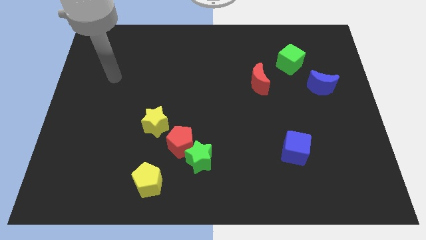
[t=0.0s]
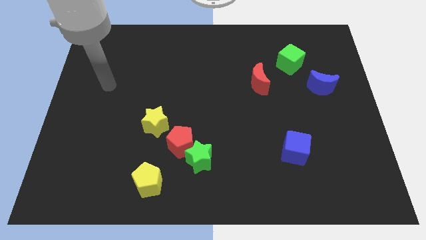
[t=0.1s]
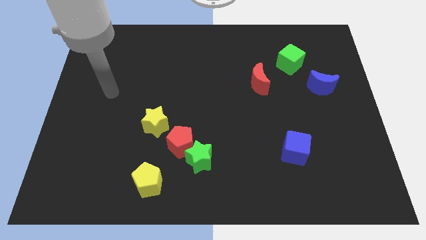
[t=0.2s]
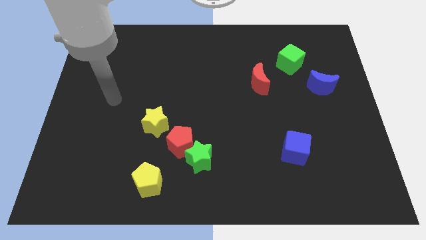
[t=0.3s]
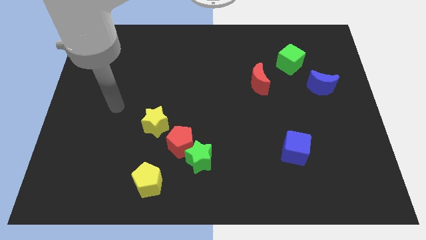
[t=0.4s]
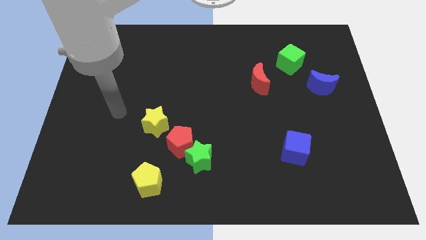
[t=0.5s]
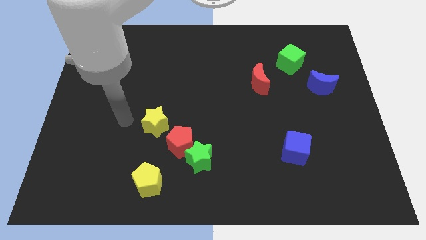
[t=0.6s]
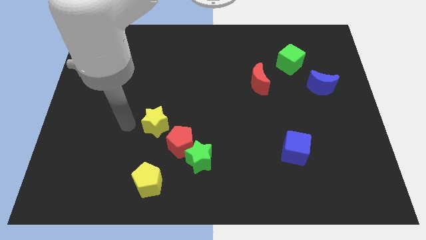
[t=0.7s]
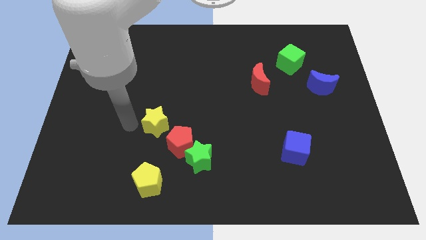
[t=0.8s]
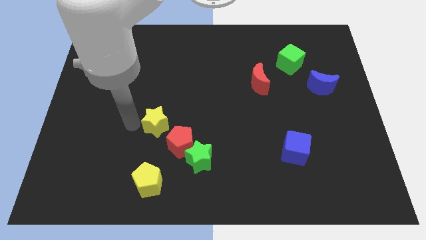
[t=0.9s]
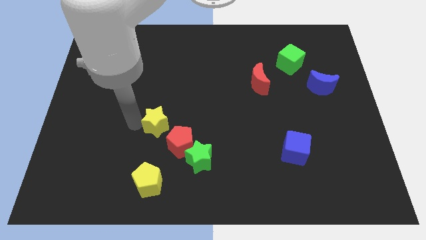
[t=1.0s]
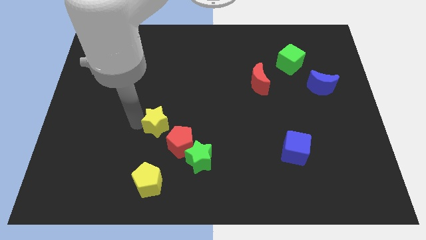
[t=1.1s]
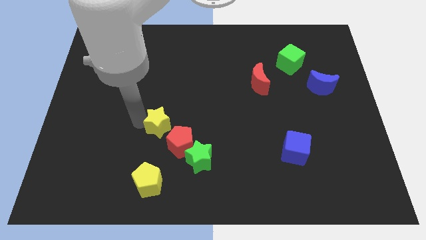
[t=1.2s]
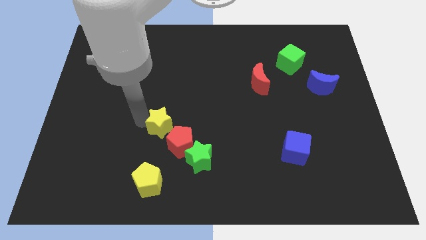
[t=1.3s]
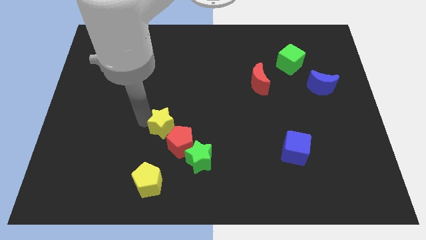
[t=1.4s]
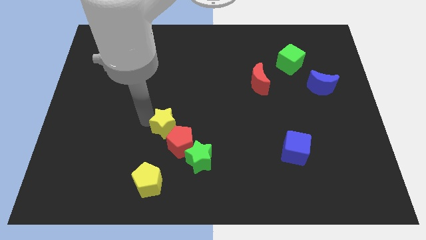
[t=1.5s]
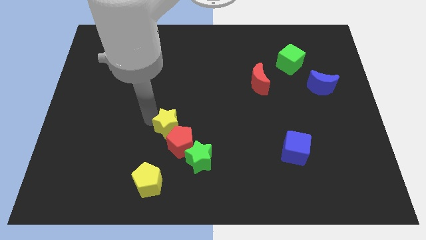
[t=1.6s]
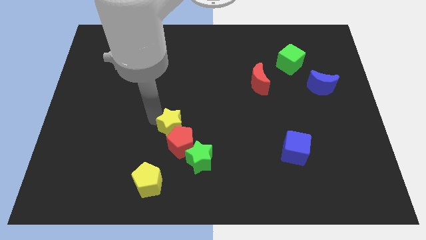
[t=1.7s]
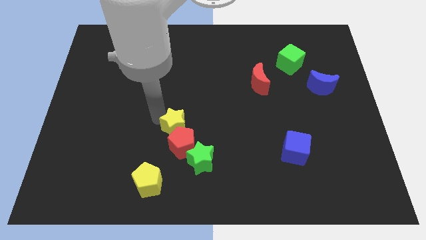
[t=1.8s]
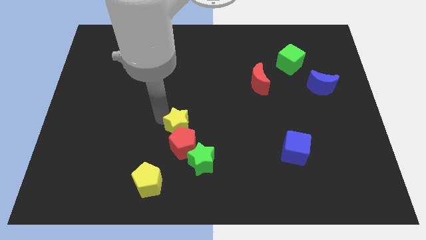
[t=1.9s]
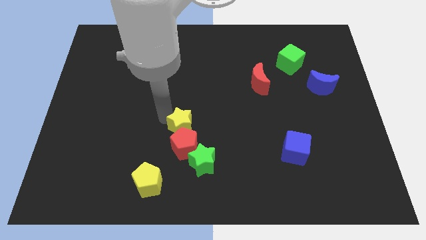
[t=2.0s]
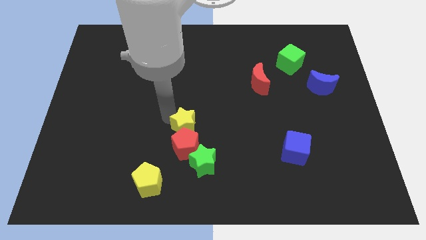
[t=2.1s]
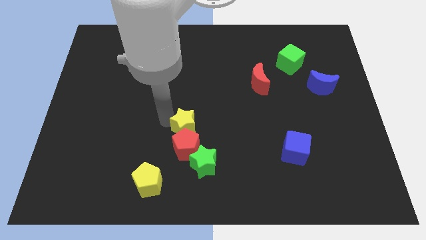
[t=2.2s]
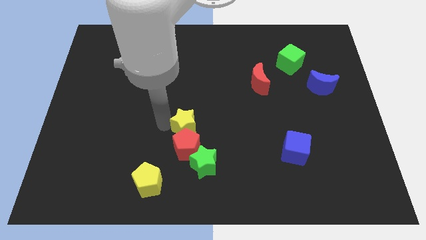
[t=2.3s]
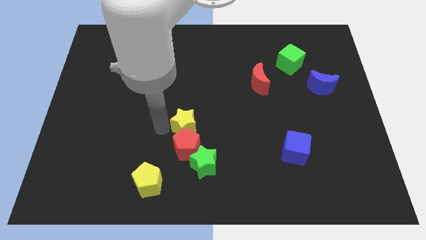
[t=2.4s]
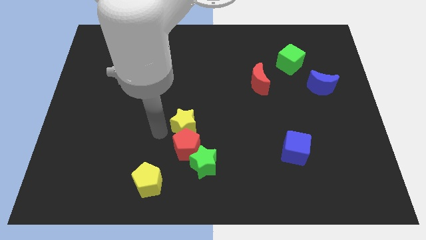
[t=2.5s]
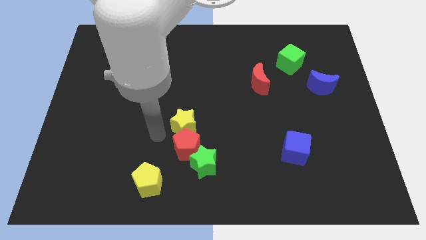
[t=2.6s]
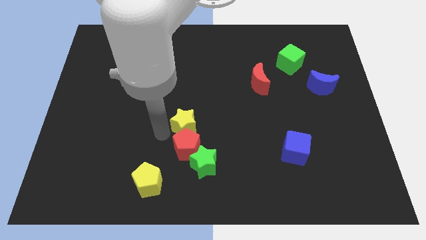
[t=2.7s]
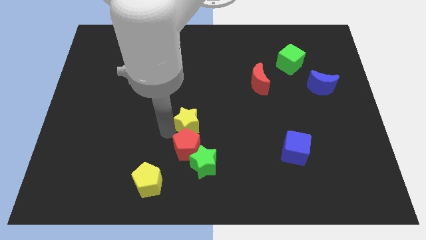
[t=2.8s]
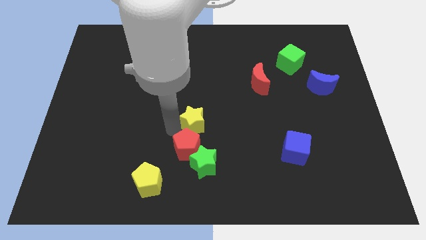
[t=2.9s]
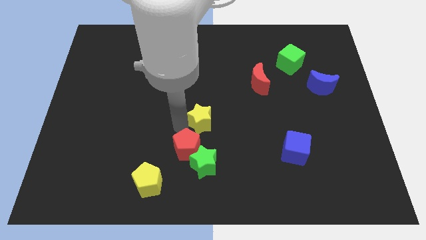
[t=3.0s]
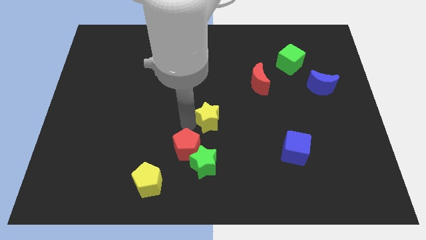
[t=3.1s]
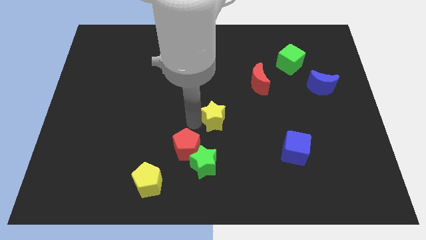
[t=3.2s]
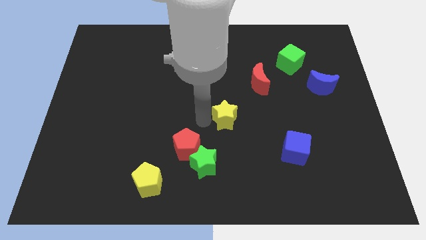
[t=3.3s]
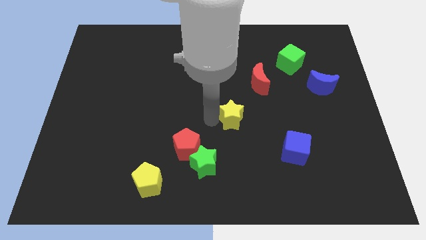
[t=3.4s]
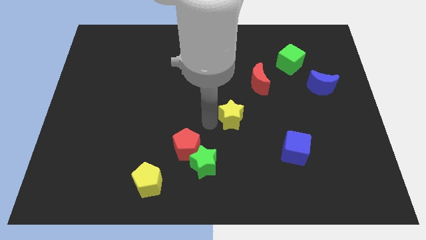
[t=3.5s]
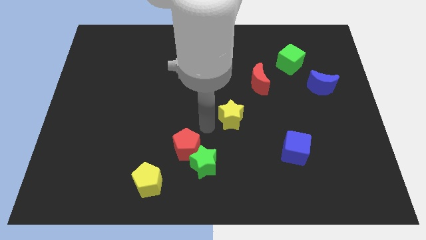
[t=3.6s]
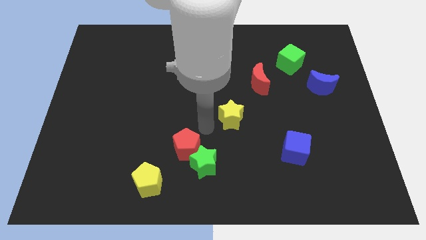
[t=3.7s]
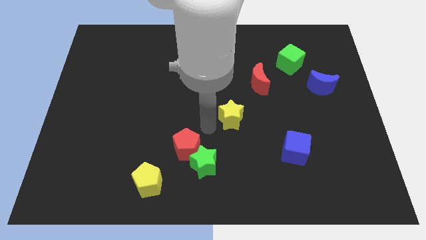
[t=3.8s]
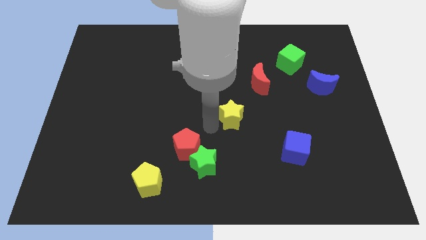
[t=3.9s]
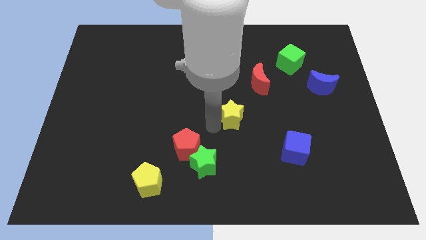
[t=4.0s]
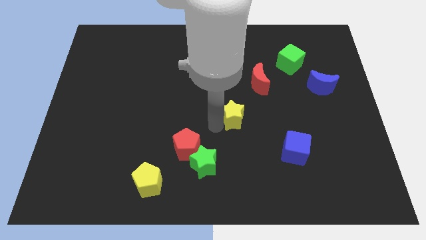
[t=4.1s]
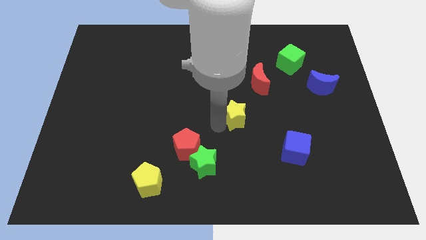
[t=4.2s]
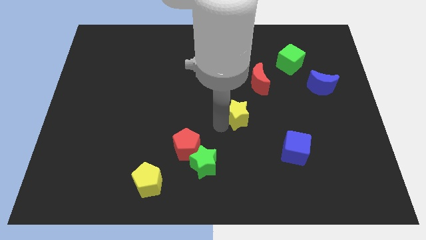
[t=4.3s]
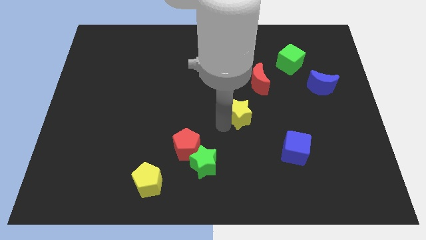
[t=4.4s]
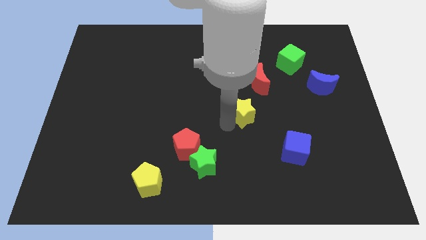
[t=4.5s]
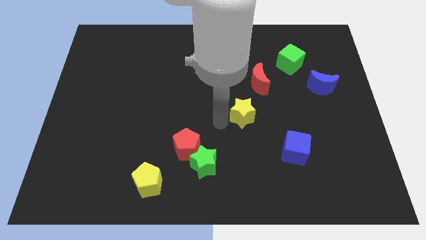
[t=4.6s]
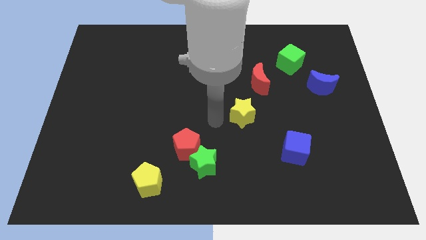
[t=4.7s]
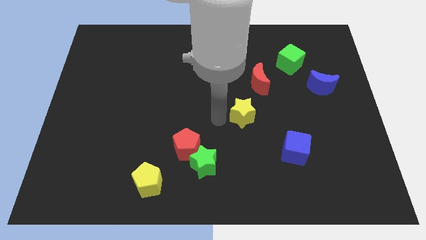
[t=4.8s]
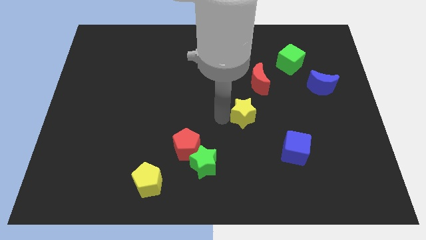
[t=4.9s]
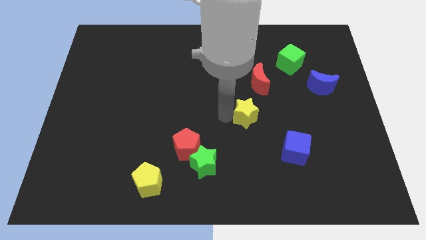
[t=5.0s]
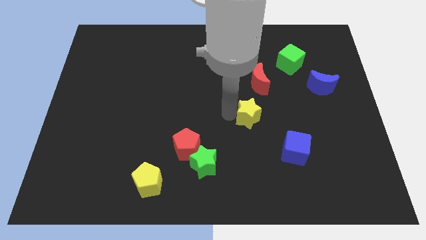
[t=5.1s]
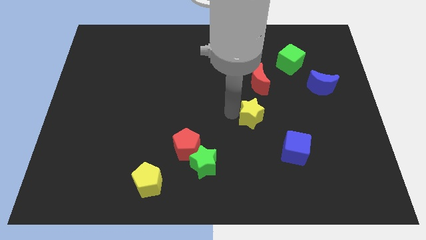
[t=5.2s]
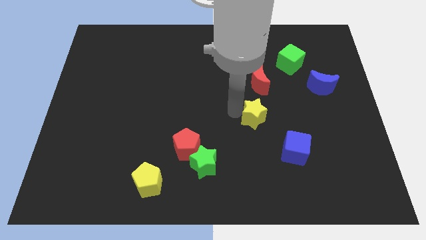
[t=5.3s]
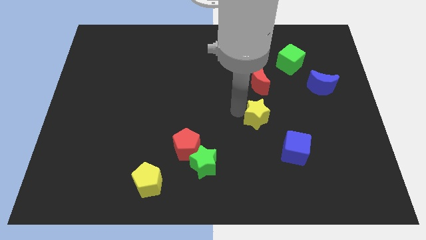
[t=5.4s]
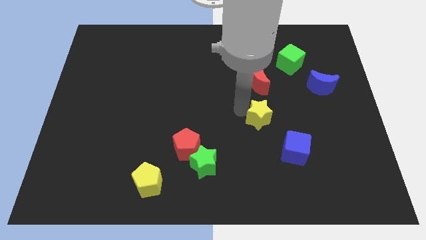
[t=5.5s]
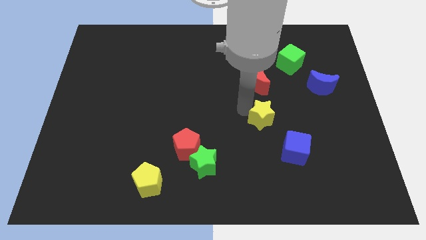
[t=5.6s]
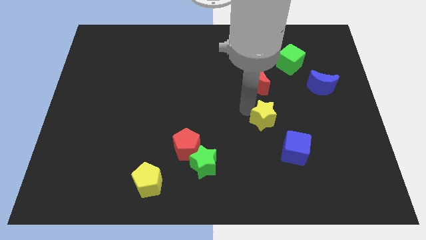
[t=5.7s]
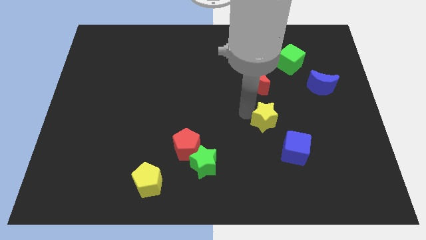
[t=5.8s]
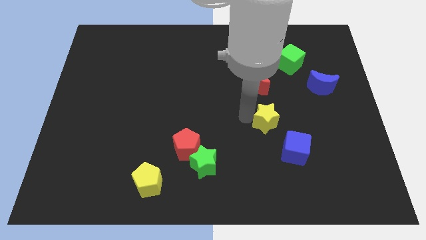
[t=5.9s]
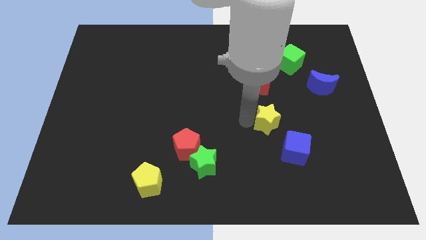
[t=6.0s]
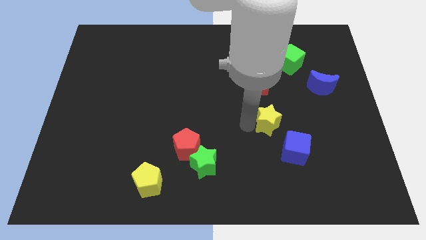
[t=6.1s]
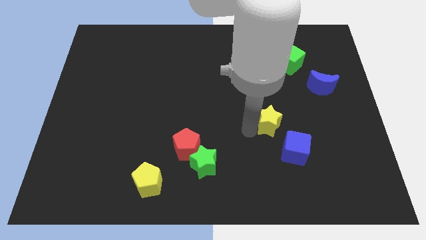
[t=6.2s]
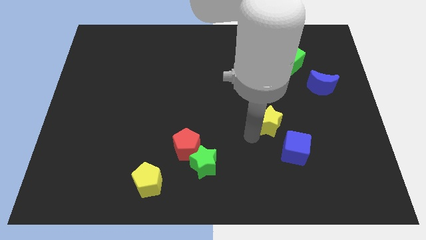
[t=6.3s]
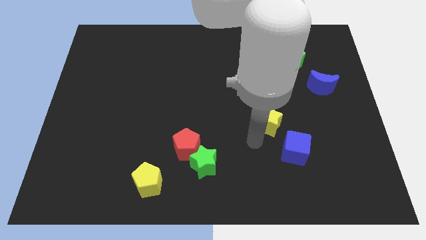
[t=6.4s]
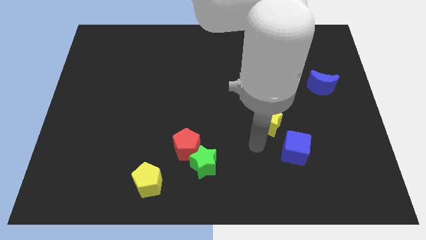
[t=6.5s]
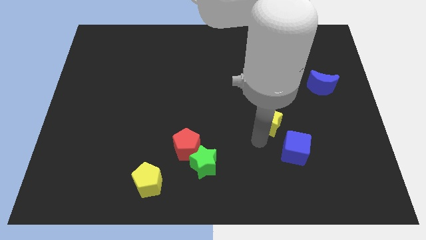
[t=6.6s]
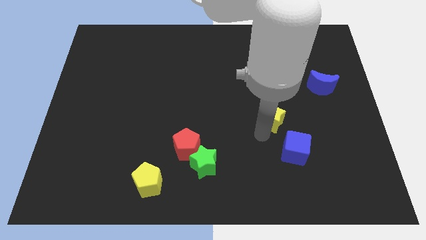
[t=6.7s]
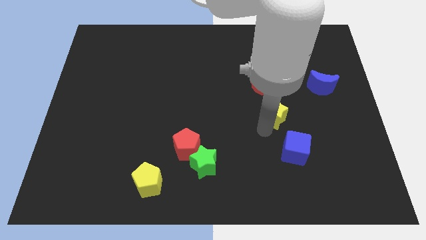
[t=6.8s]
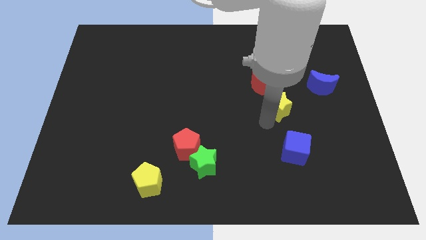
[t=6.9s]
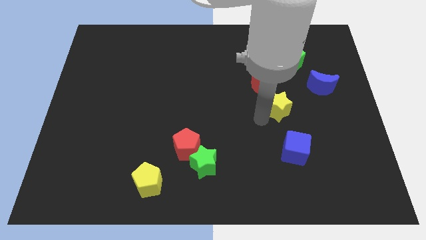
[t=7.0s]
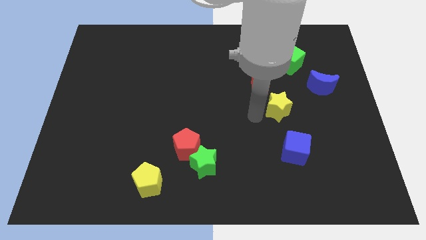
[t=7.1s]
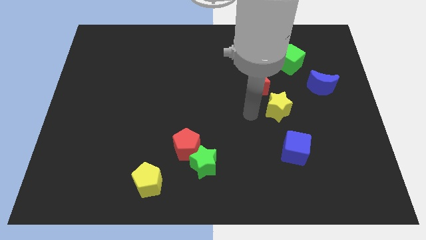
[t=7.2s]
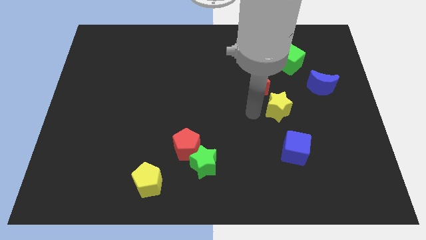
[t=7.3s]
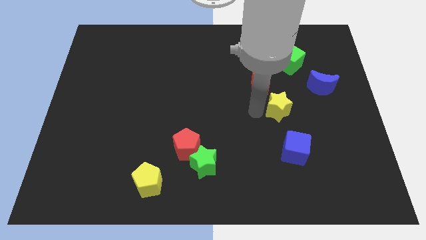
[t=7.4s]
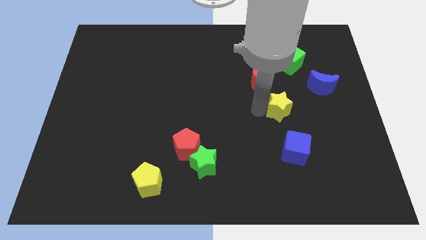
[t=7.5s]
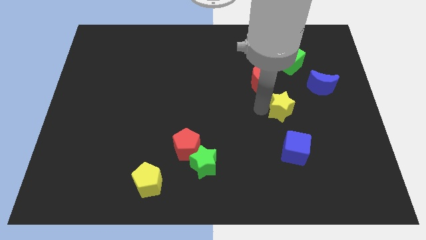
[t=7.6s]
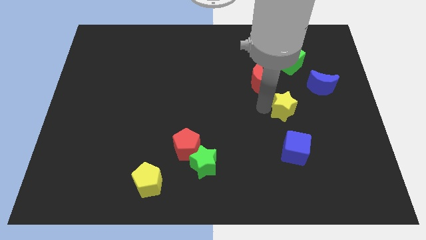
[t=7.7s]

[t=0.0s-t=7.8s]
put the yellow star diagonally down and to the left of the blue moon

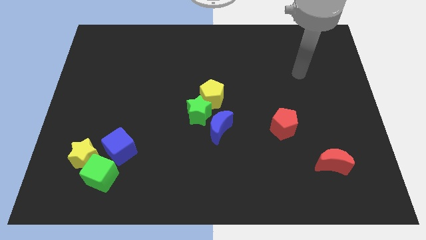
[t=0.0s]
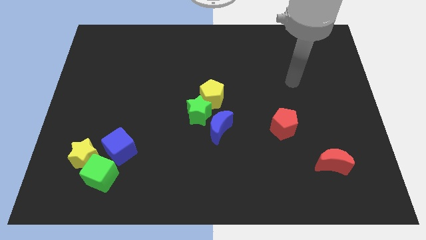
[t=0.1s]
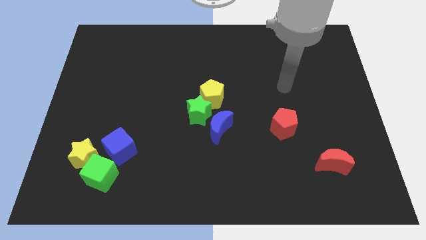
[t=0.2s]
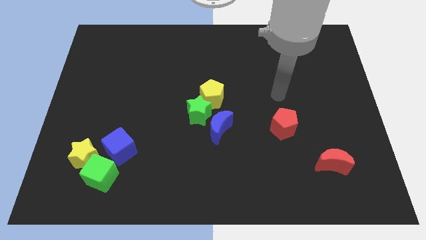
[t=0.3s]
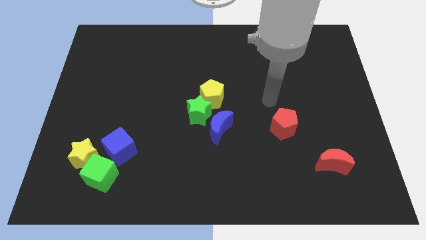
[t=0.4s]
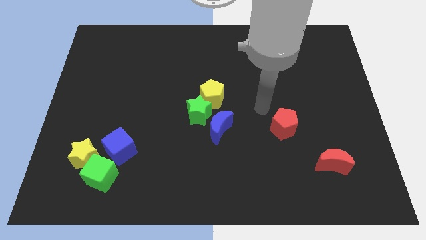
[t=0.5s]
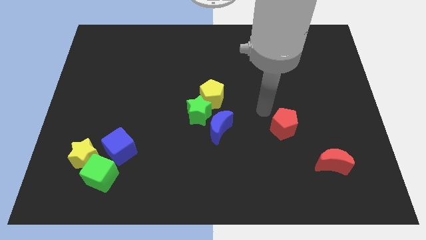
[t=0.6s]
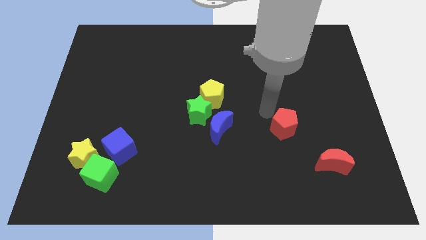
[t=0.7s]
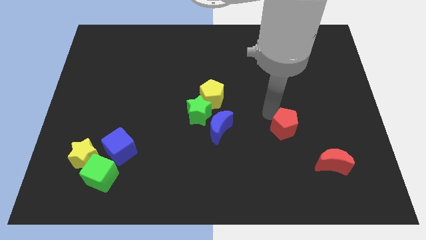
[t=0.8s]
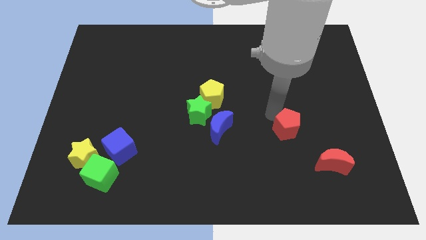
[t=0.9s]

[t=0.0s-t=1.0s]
push the red pentagon diagonally up and to the left of the red moon
